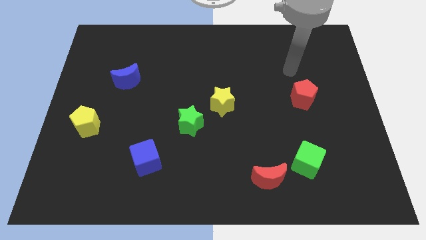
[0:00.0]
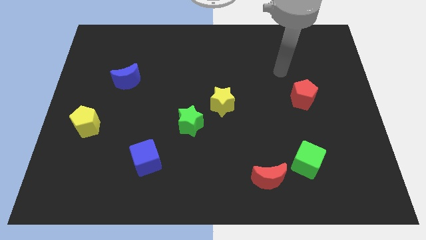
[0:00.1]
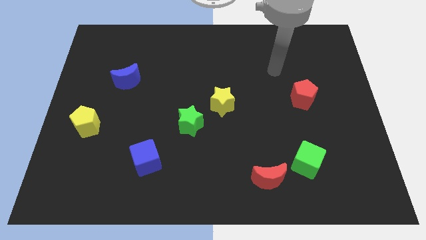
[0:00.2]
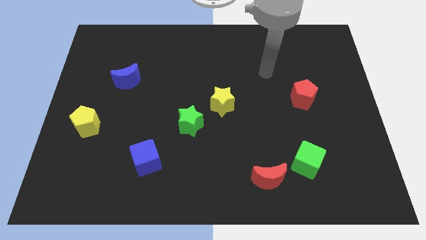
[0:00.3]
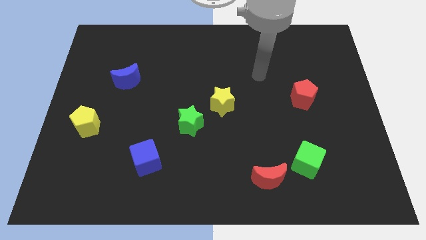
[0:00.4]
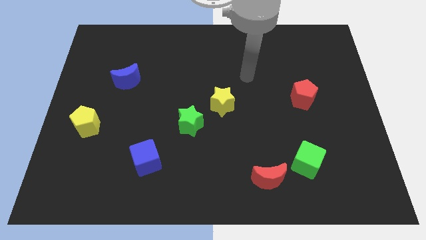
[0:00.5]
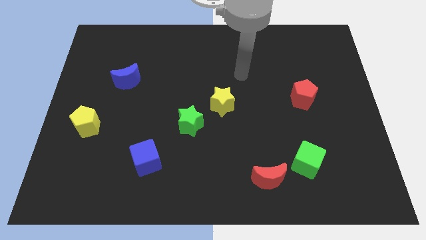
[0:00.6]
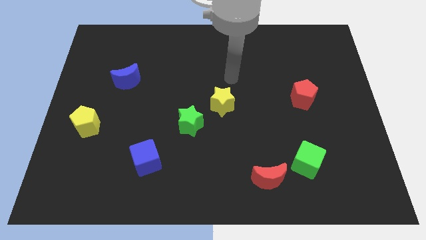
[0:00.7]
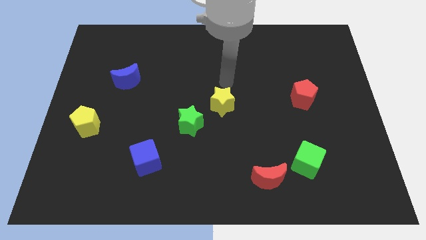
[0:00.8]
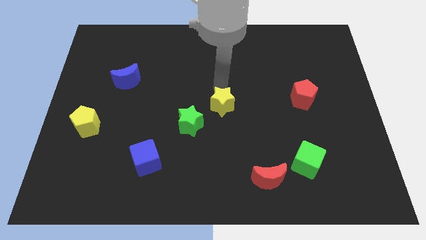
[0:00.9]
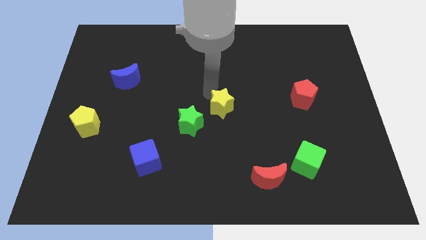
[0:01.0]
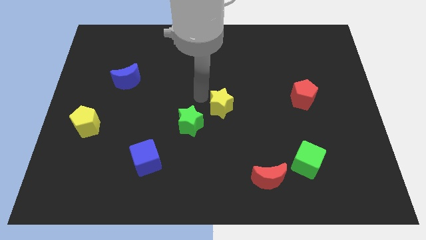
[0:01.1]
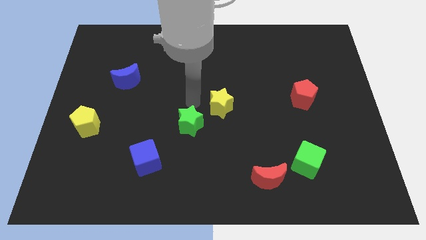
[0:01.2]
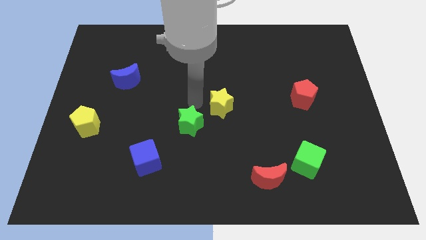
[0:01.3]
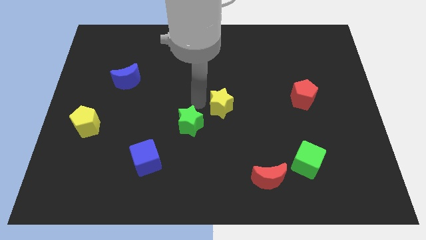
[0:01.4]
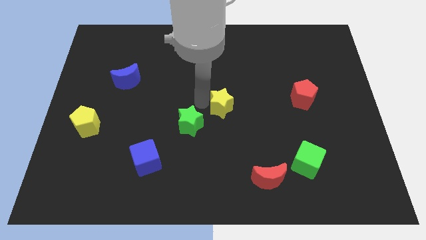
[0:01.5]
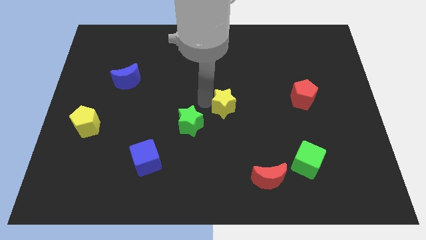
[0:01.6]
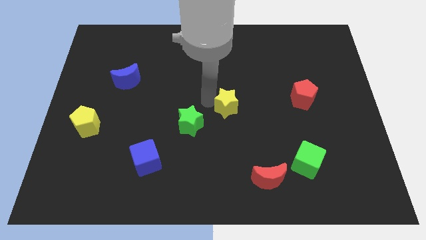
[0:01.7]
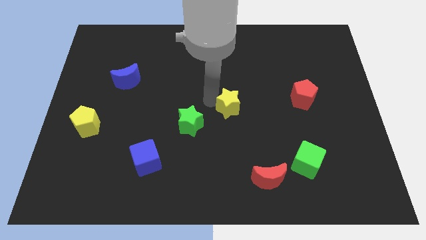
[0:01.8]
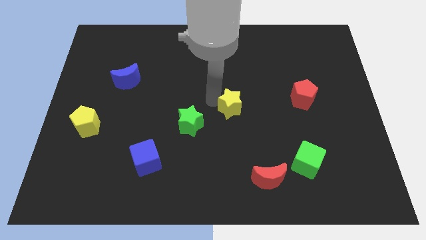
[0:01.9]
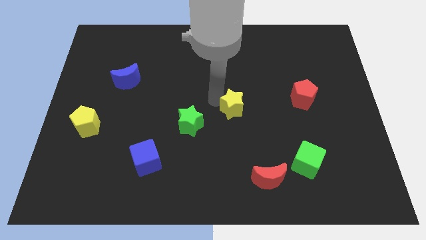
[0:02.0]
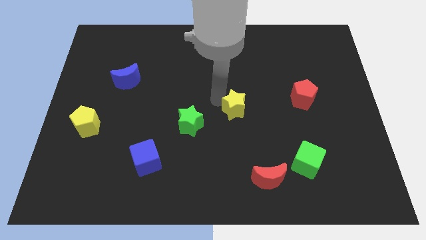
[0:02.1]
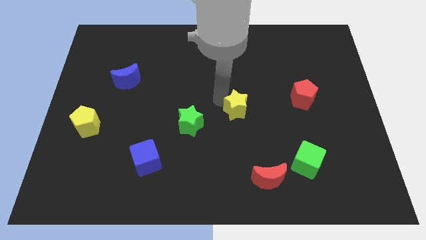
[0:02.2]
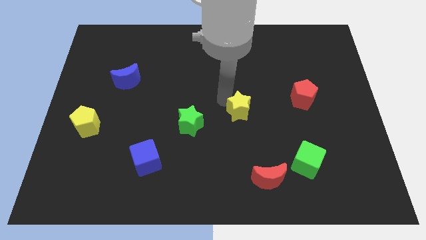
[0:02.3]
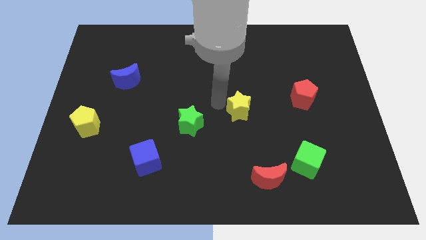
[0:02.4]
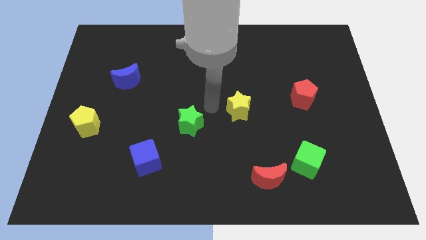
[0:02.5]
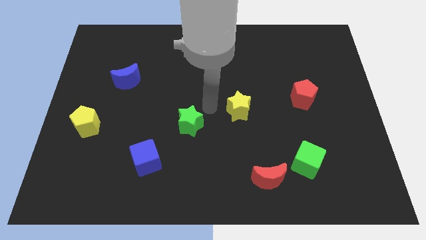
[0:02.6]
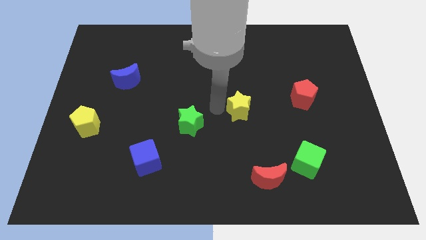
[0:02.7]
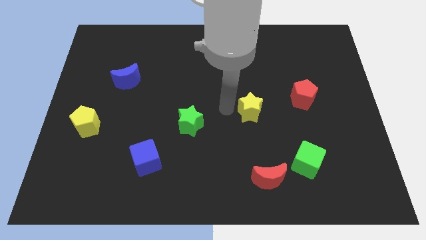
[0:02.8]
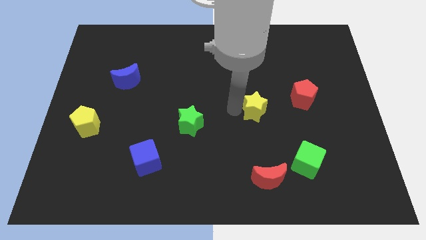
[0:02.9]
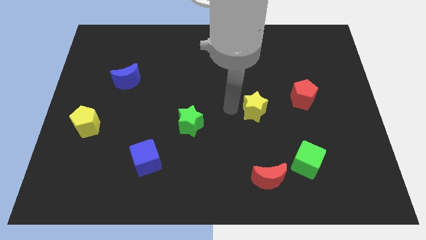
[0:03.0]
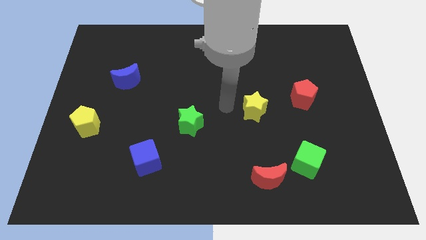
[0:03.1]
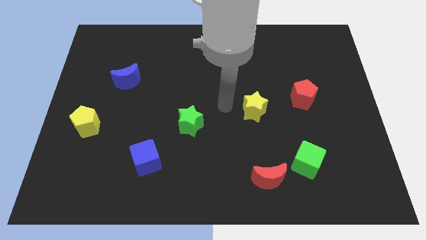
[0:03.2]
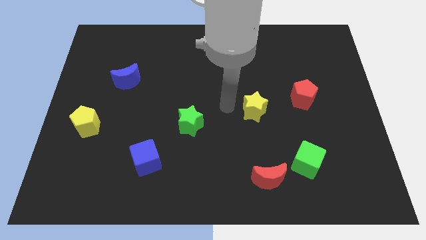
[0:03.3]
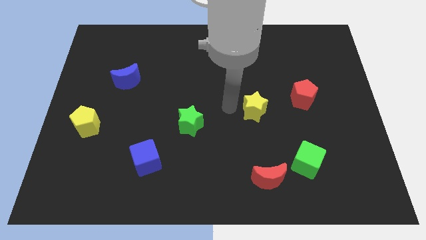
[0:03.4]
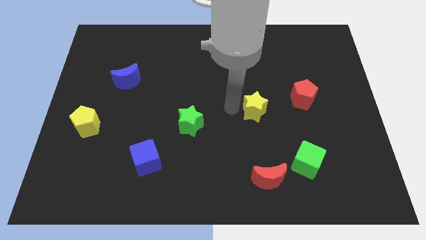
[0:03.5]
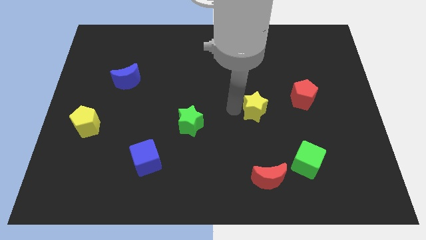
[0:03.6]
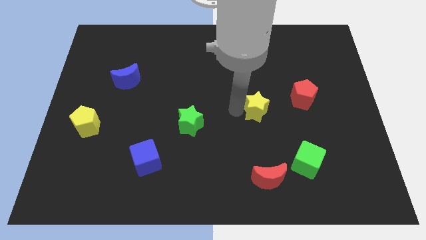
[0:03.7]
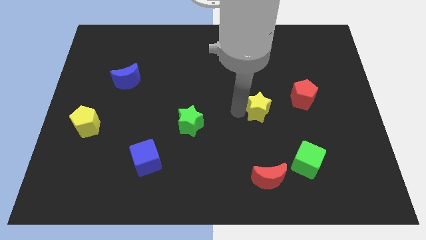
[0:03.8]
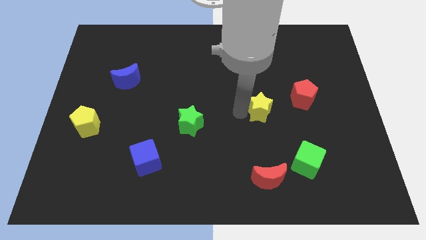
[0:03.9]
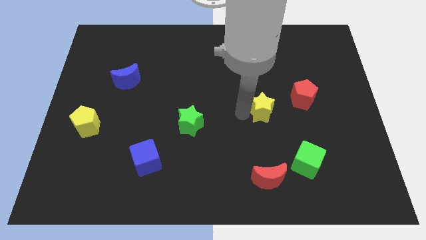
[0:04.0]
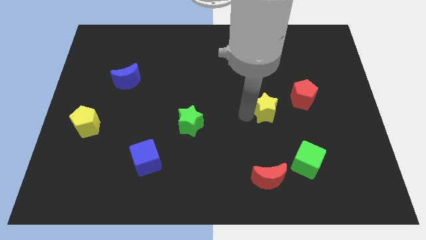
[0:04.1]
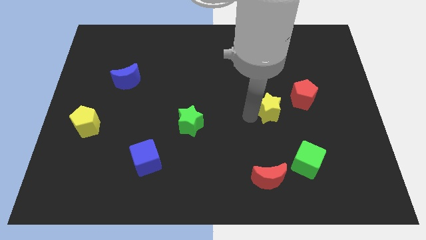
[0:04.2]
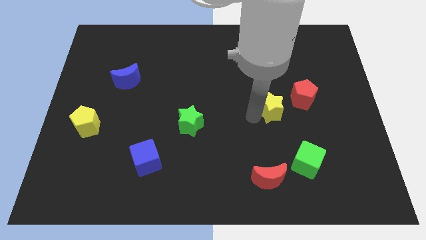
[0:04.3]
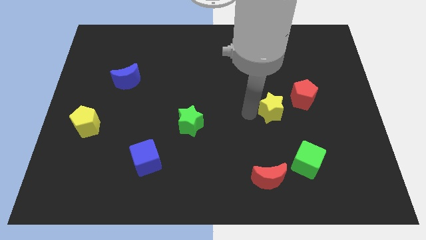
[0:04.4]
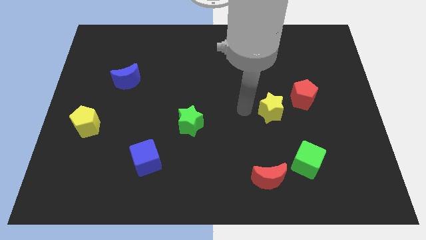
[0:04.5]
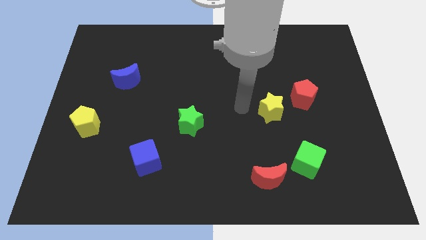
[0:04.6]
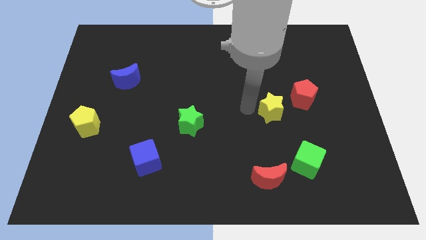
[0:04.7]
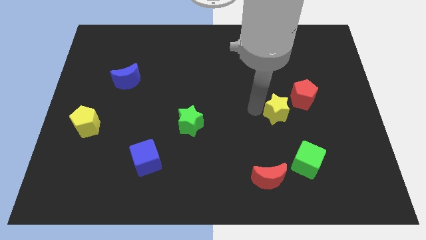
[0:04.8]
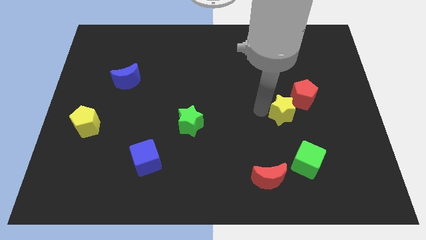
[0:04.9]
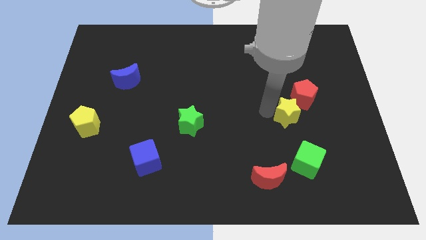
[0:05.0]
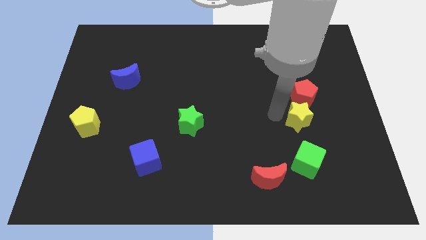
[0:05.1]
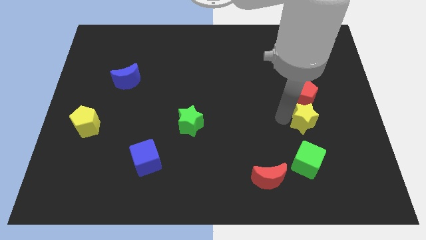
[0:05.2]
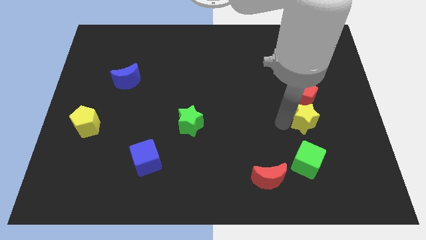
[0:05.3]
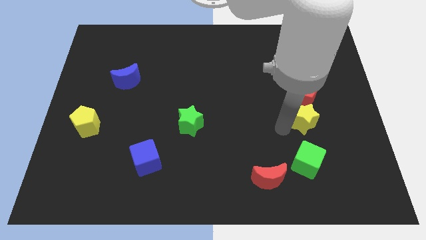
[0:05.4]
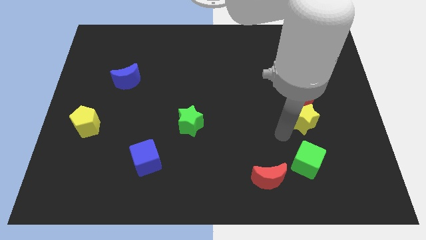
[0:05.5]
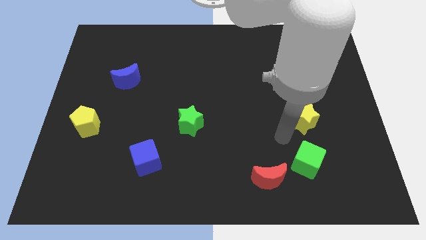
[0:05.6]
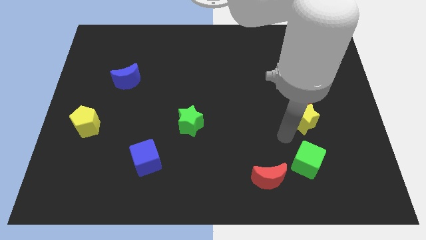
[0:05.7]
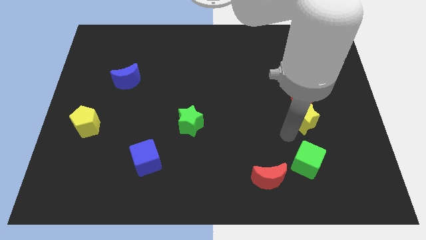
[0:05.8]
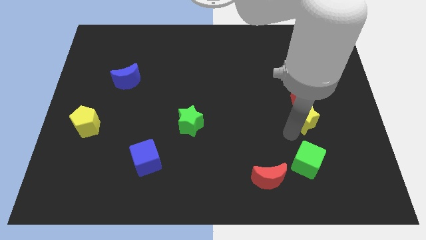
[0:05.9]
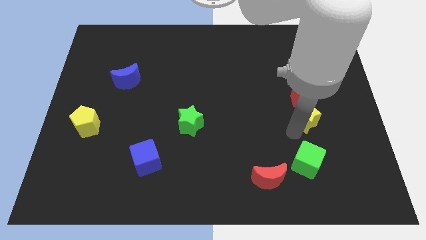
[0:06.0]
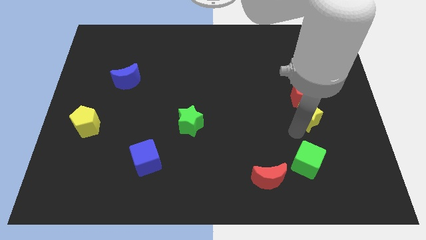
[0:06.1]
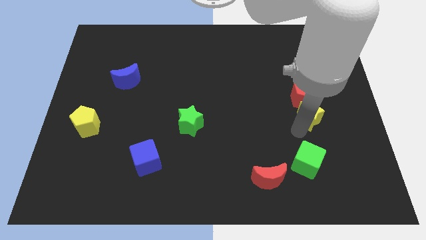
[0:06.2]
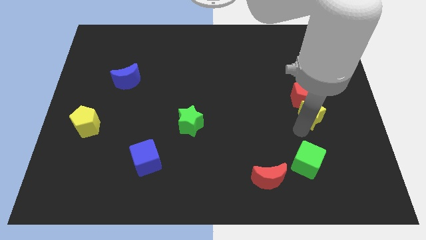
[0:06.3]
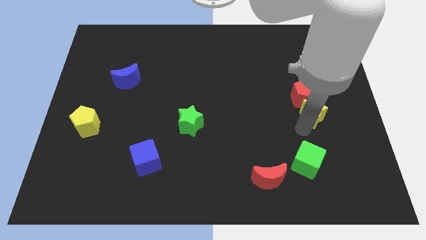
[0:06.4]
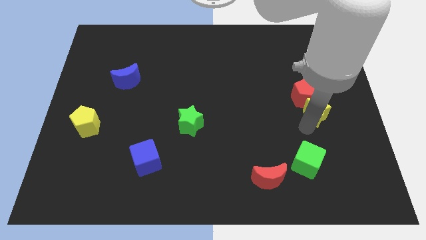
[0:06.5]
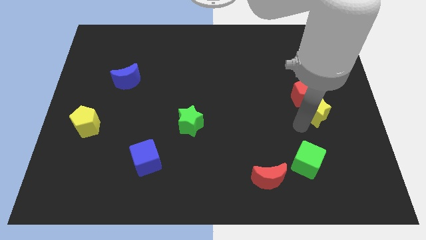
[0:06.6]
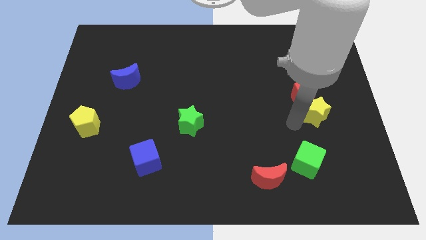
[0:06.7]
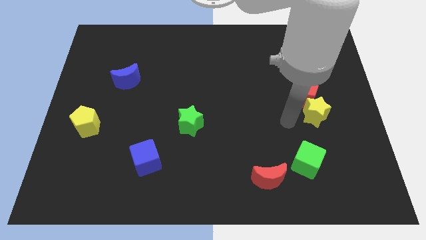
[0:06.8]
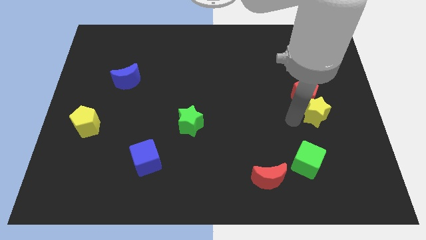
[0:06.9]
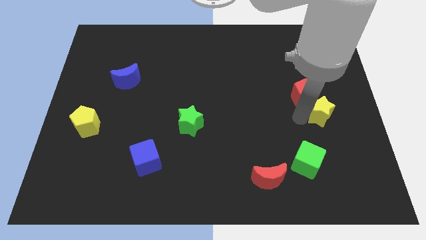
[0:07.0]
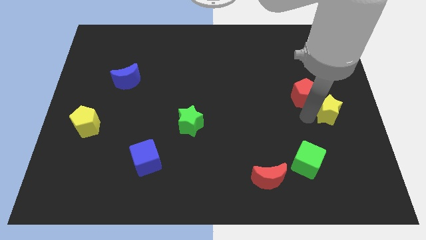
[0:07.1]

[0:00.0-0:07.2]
move the yellow star to the center right

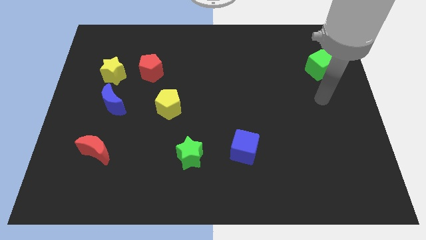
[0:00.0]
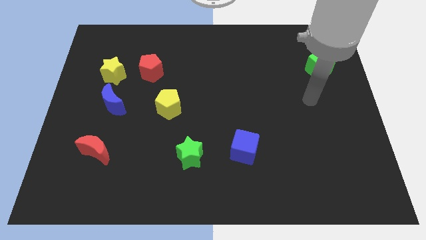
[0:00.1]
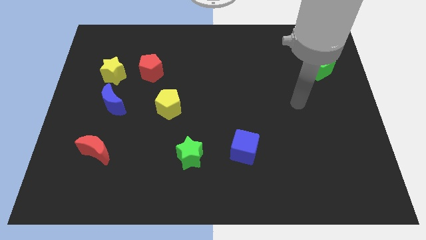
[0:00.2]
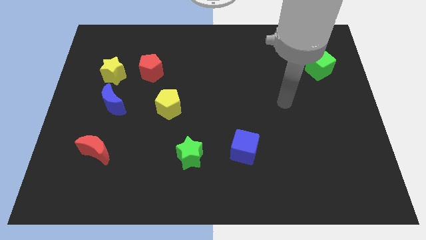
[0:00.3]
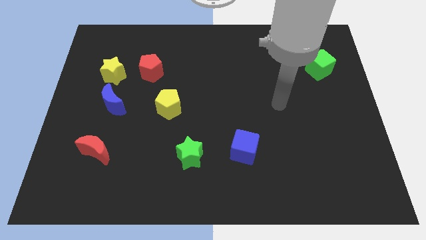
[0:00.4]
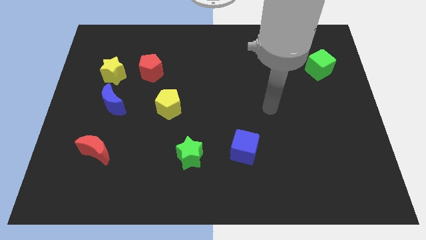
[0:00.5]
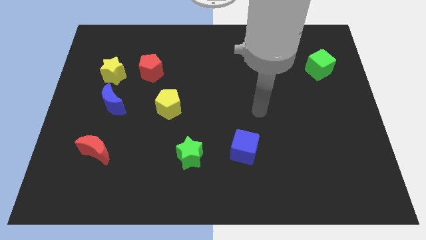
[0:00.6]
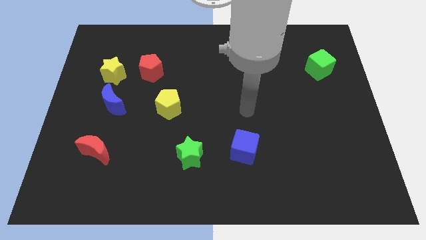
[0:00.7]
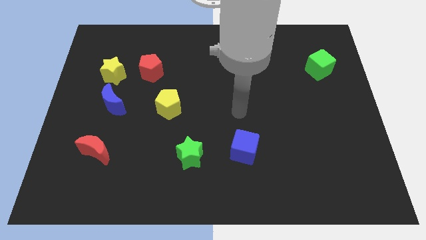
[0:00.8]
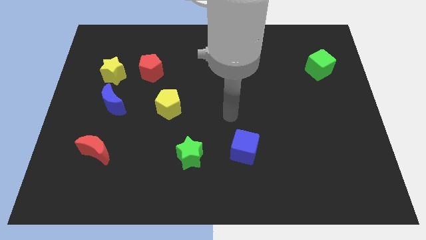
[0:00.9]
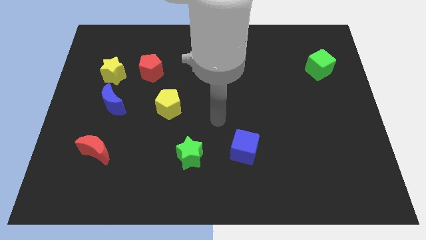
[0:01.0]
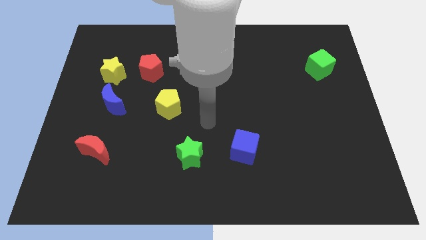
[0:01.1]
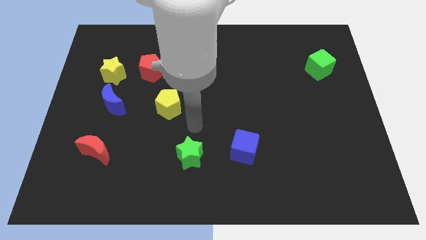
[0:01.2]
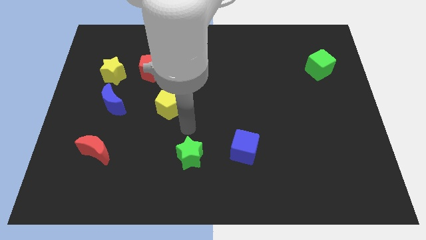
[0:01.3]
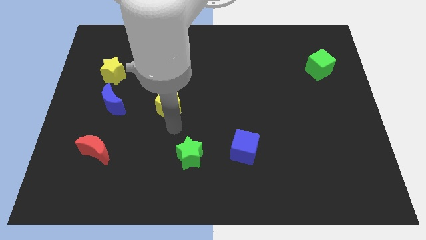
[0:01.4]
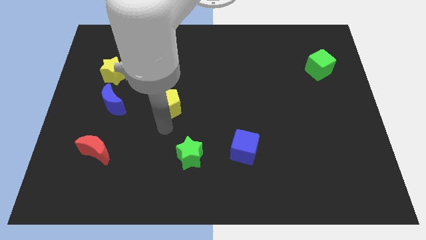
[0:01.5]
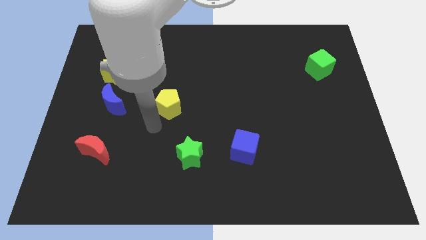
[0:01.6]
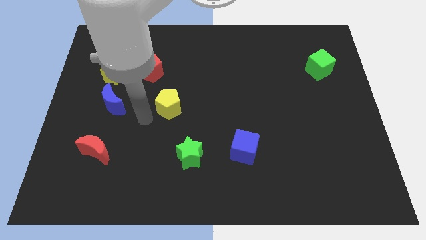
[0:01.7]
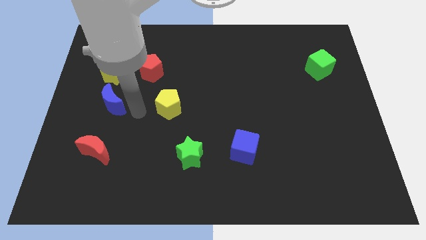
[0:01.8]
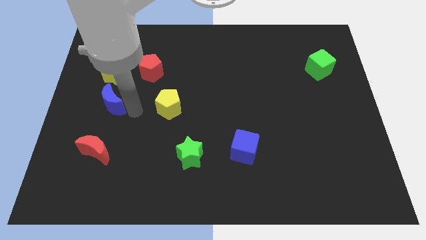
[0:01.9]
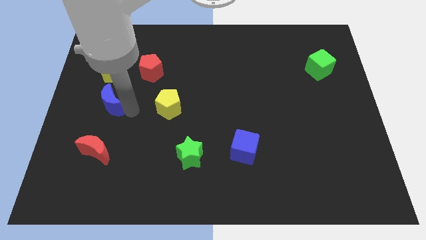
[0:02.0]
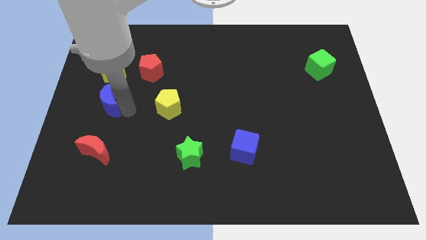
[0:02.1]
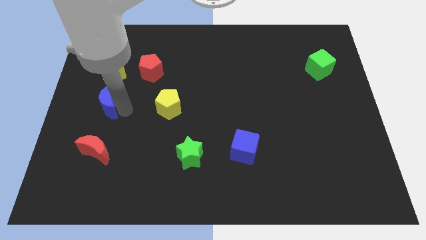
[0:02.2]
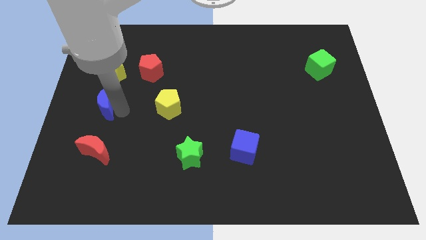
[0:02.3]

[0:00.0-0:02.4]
slide the blue moon to the center left
